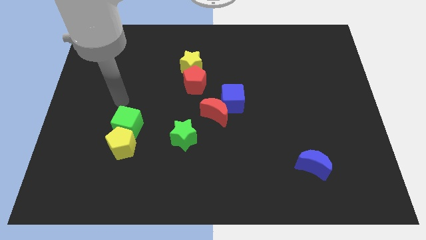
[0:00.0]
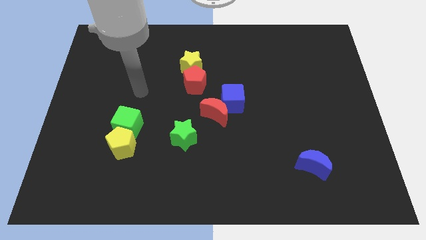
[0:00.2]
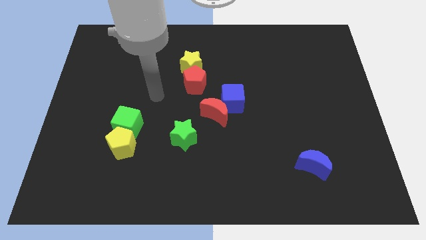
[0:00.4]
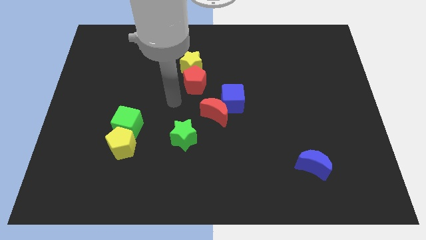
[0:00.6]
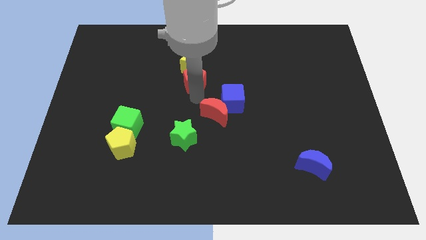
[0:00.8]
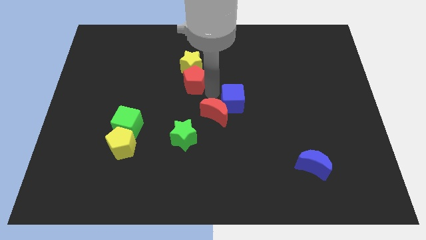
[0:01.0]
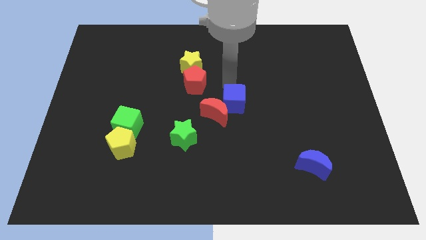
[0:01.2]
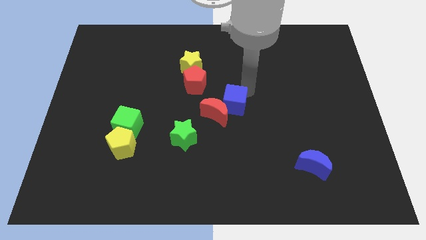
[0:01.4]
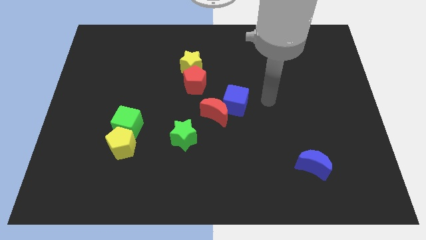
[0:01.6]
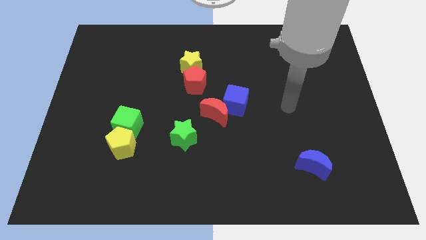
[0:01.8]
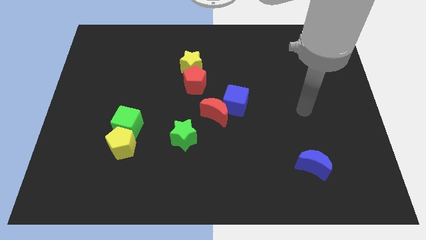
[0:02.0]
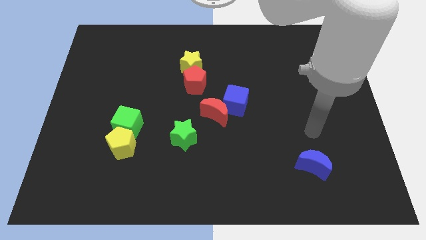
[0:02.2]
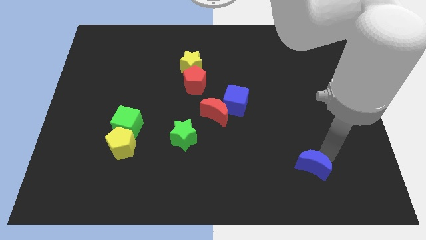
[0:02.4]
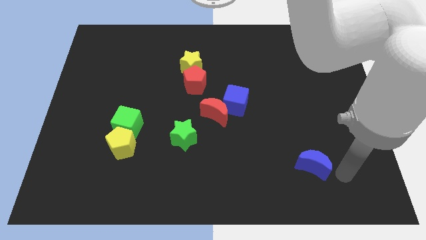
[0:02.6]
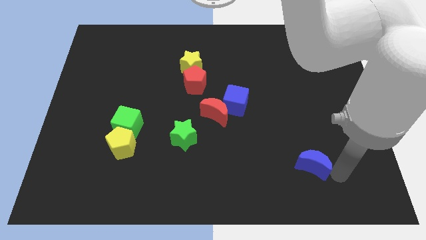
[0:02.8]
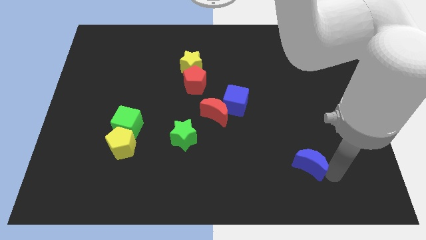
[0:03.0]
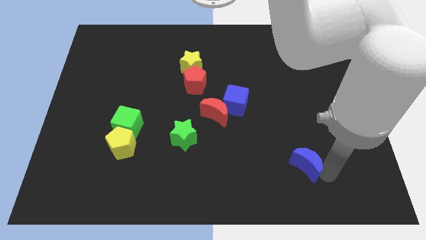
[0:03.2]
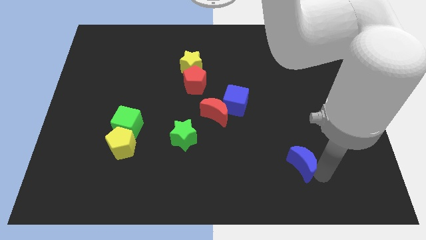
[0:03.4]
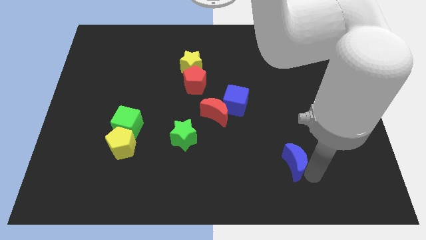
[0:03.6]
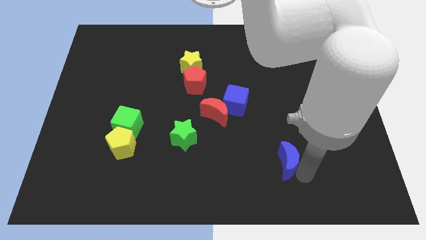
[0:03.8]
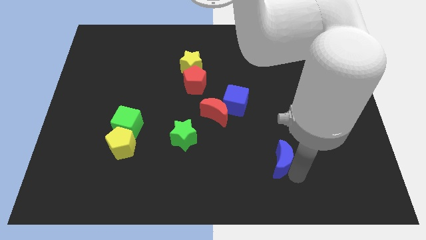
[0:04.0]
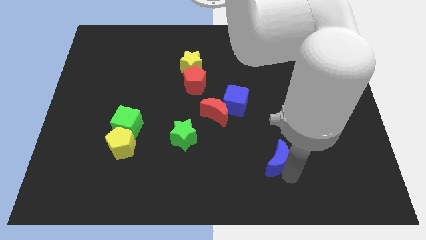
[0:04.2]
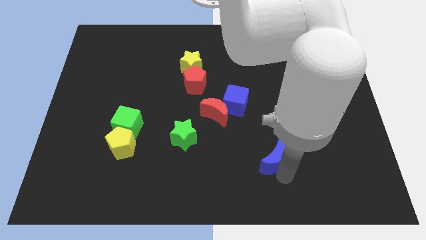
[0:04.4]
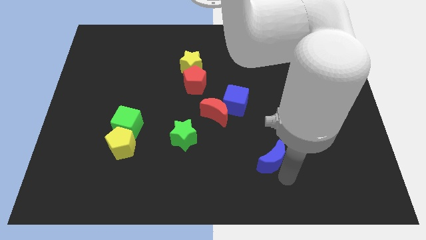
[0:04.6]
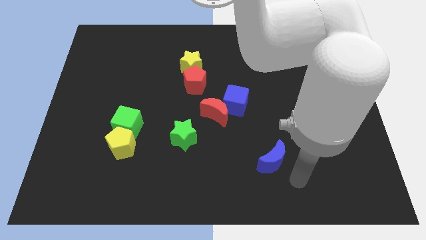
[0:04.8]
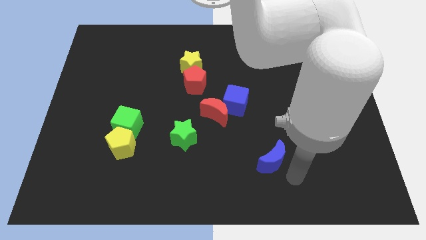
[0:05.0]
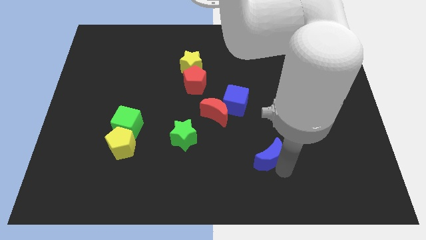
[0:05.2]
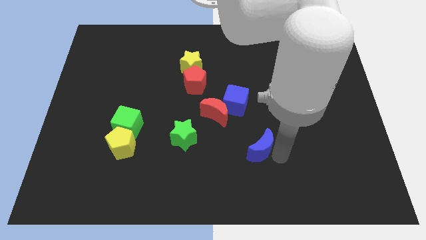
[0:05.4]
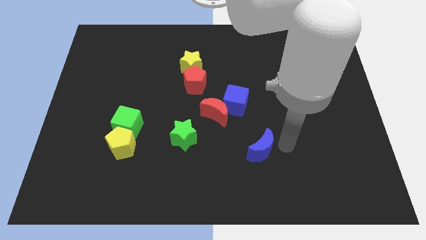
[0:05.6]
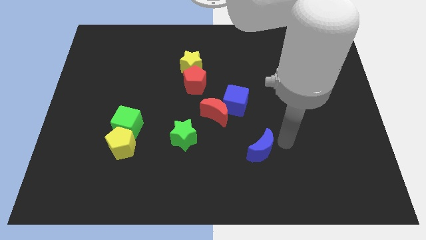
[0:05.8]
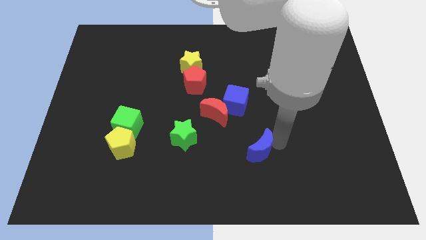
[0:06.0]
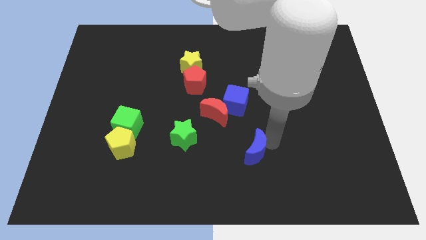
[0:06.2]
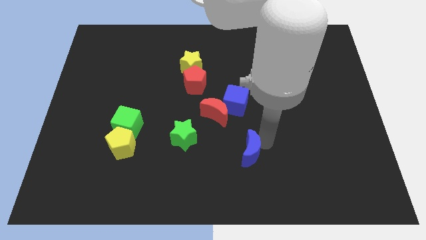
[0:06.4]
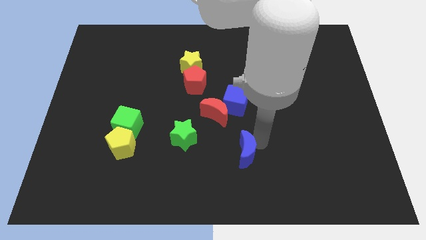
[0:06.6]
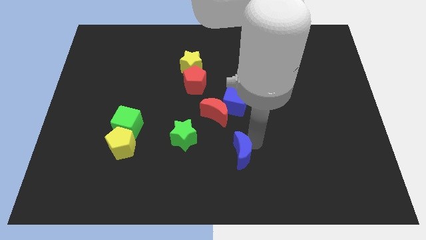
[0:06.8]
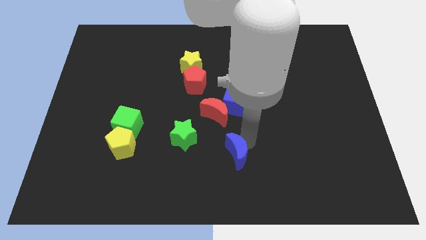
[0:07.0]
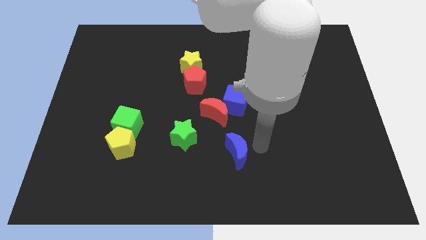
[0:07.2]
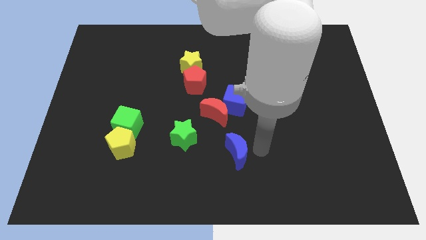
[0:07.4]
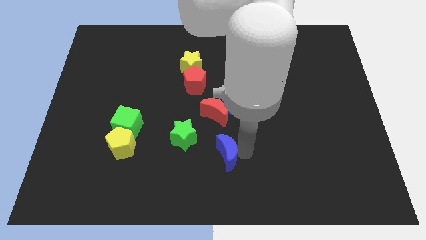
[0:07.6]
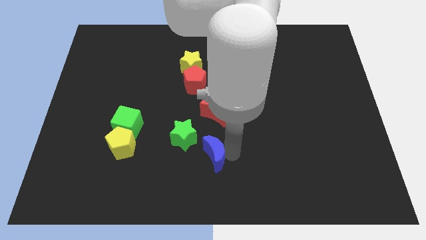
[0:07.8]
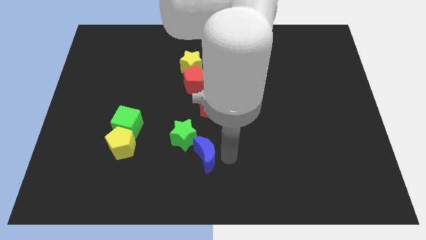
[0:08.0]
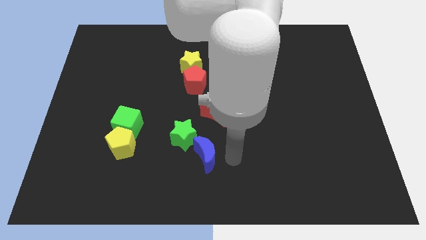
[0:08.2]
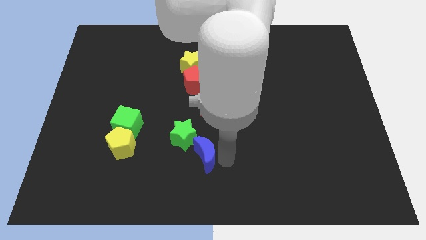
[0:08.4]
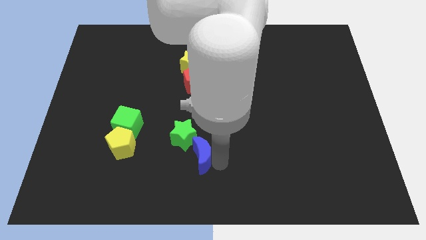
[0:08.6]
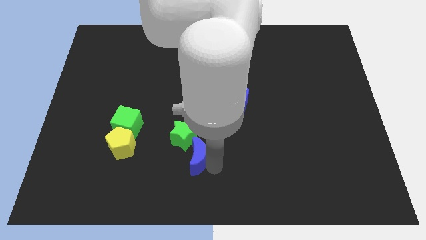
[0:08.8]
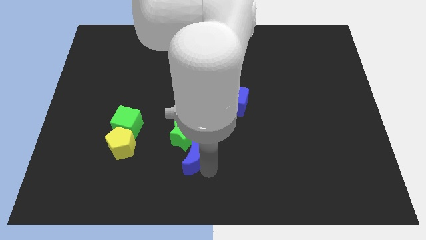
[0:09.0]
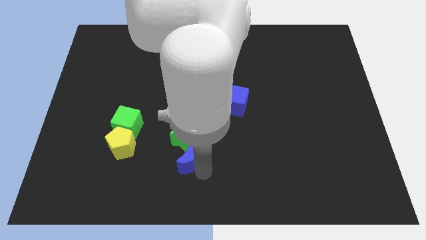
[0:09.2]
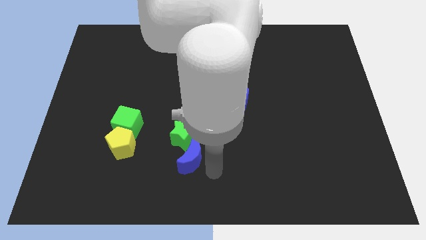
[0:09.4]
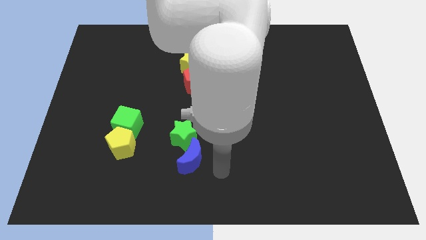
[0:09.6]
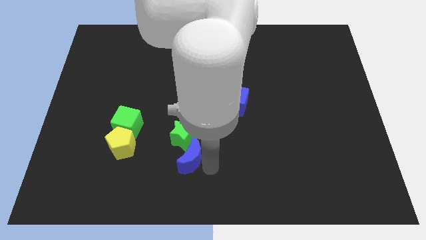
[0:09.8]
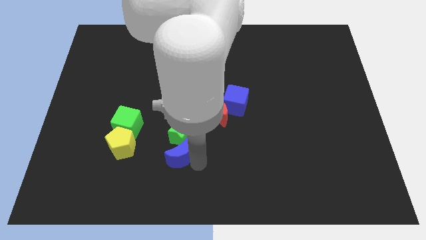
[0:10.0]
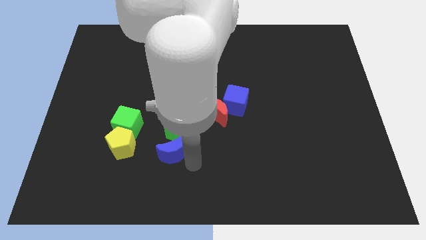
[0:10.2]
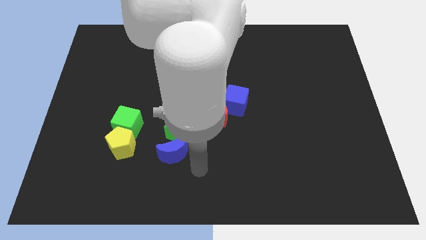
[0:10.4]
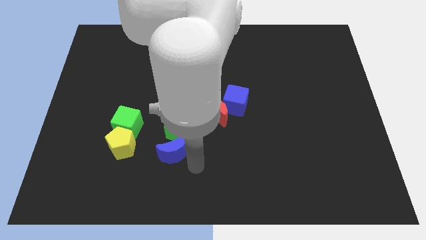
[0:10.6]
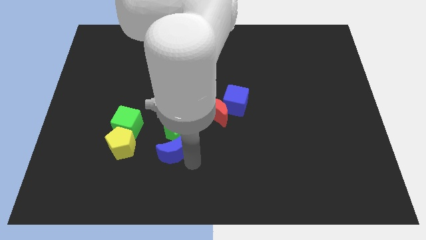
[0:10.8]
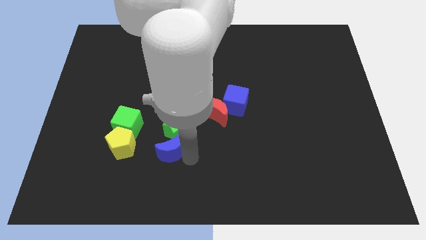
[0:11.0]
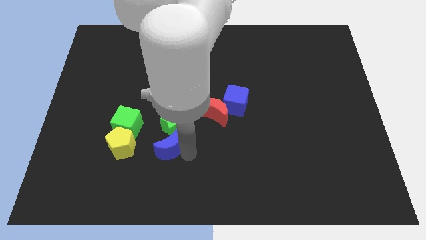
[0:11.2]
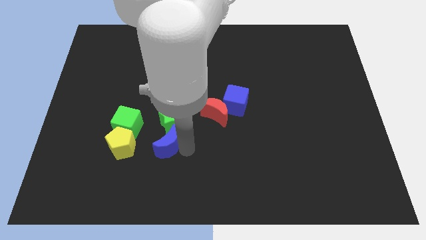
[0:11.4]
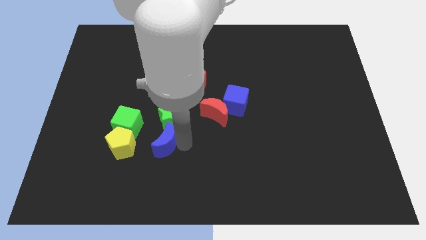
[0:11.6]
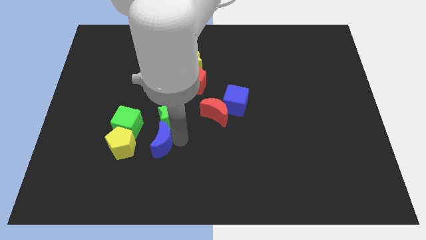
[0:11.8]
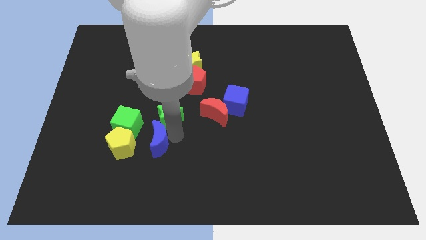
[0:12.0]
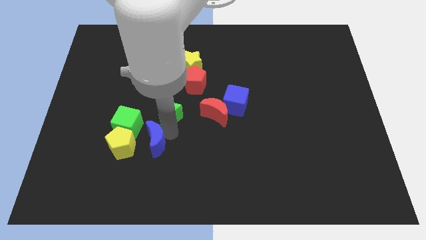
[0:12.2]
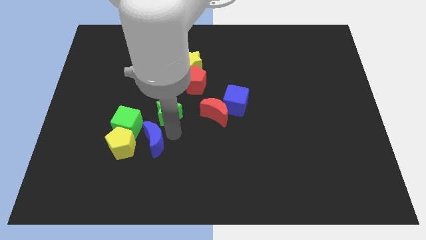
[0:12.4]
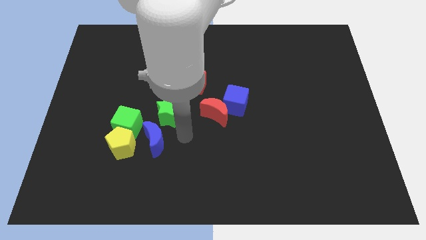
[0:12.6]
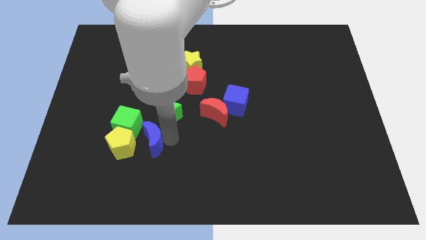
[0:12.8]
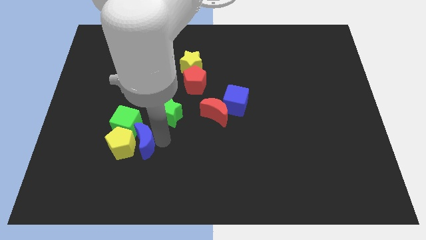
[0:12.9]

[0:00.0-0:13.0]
move the blue moon close to the yellow pentagon

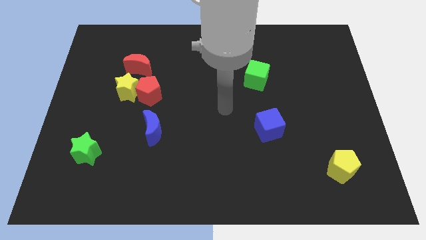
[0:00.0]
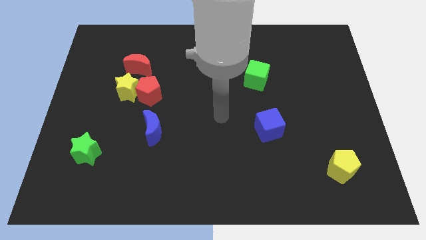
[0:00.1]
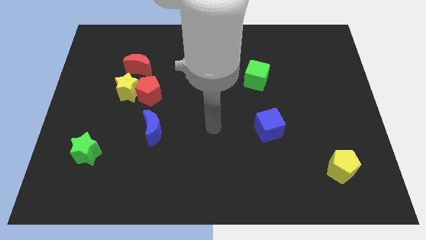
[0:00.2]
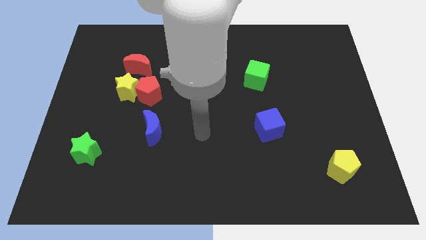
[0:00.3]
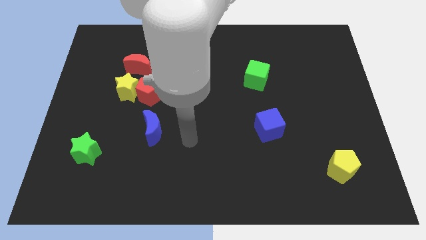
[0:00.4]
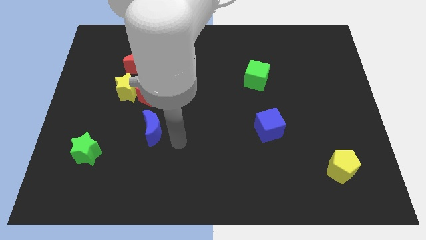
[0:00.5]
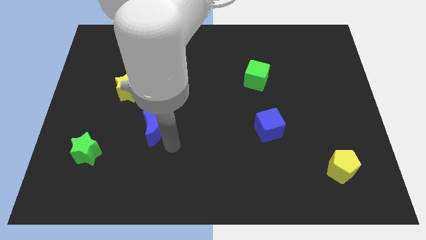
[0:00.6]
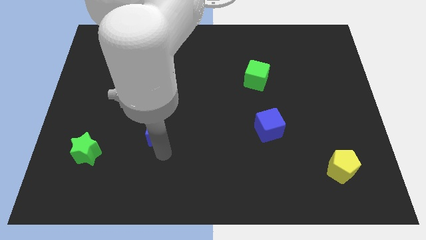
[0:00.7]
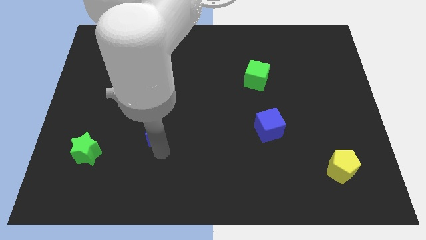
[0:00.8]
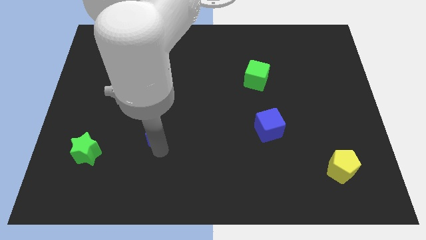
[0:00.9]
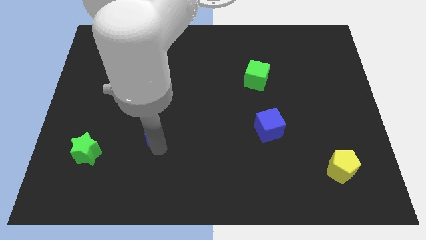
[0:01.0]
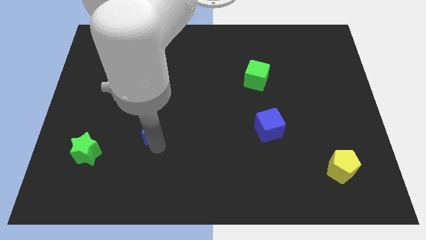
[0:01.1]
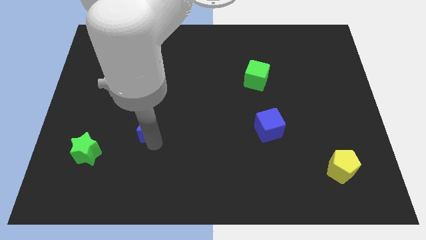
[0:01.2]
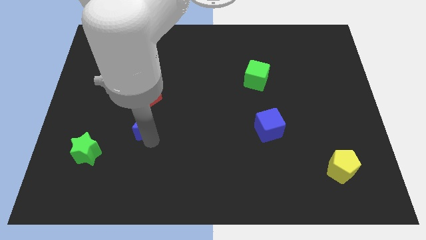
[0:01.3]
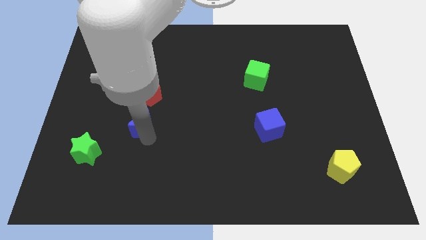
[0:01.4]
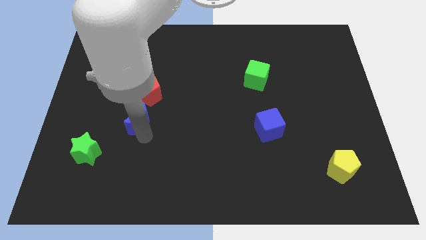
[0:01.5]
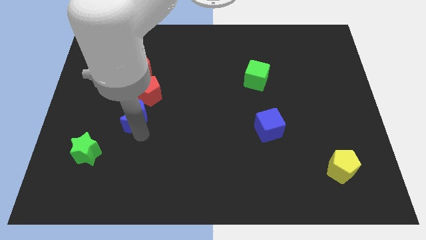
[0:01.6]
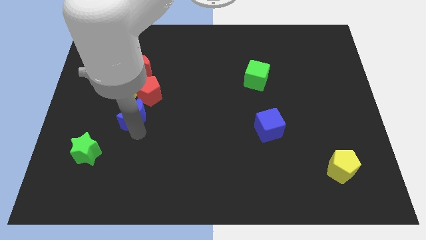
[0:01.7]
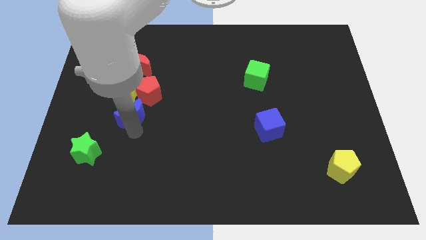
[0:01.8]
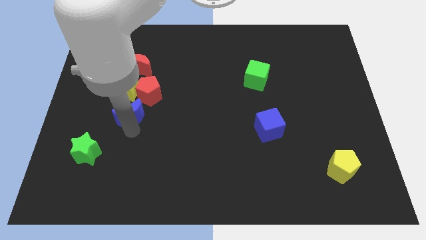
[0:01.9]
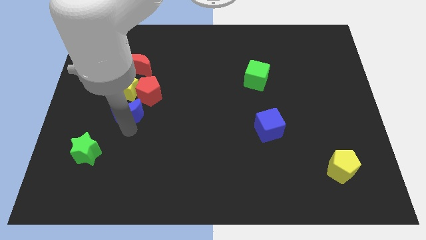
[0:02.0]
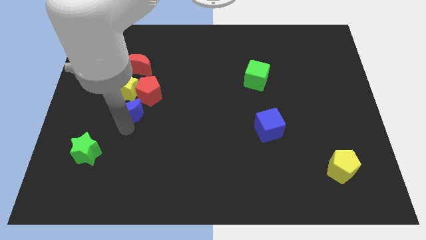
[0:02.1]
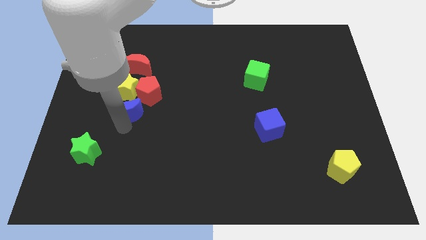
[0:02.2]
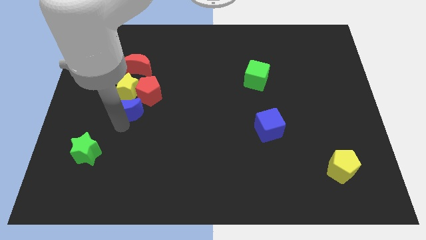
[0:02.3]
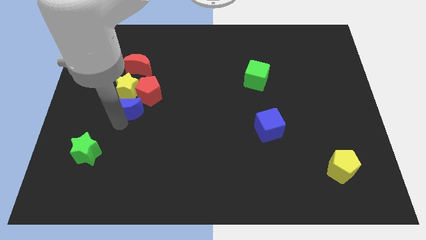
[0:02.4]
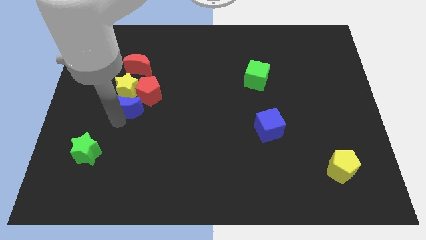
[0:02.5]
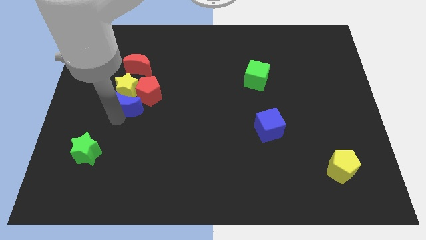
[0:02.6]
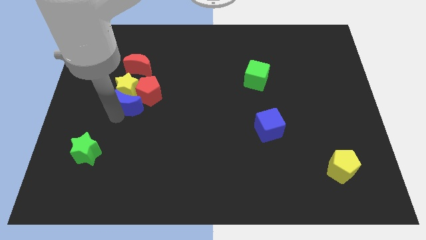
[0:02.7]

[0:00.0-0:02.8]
put the blue moon towards the red pentagon
